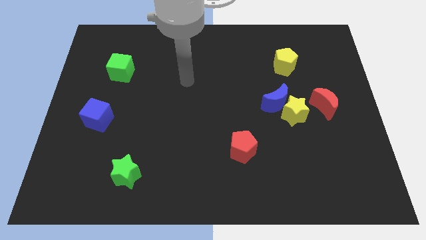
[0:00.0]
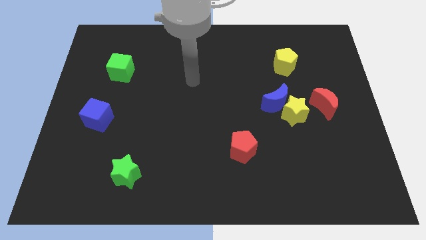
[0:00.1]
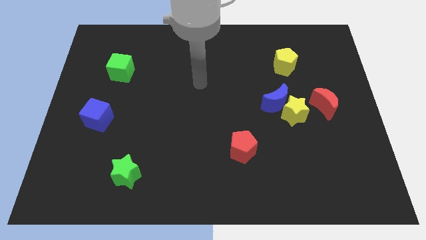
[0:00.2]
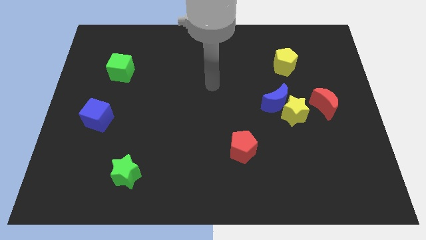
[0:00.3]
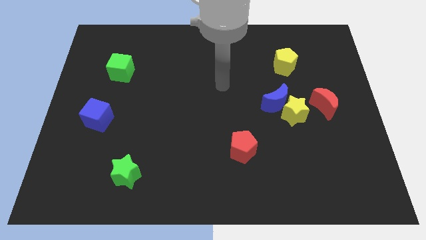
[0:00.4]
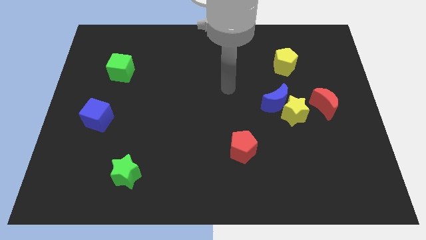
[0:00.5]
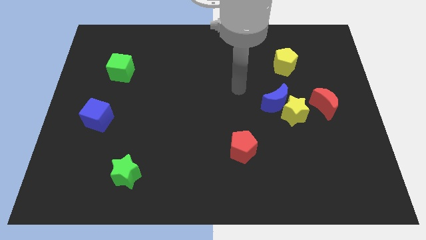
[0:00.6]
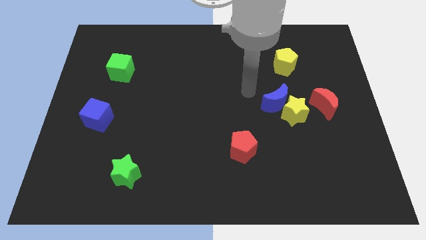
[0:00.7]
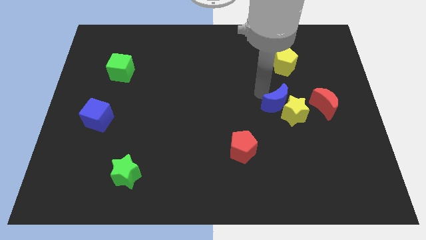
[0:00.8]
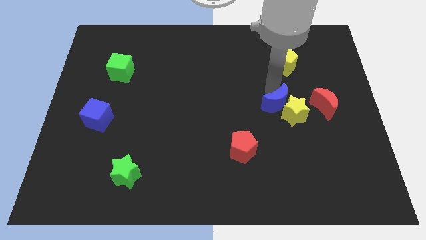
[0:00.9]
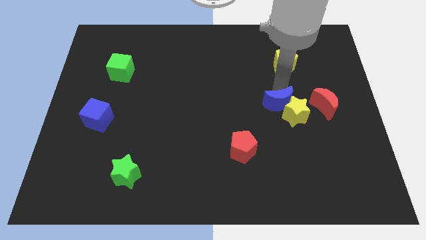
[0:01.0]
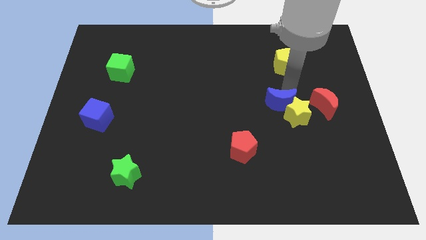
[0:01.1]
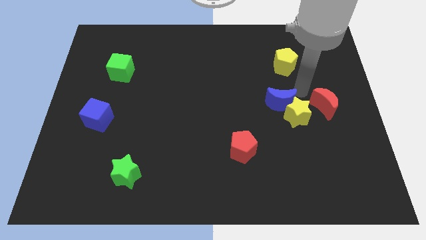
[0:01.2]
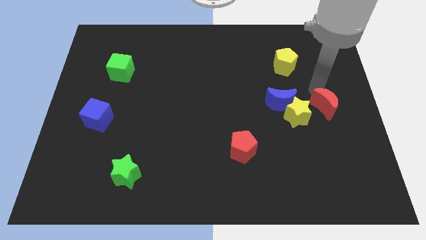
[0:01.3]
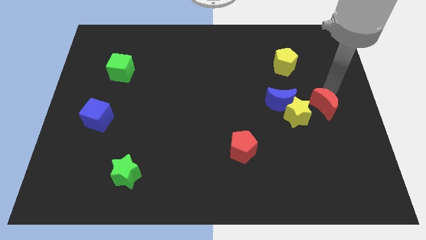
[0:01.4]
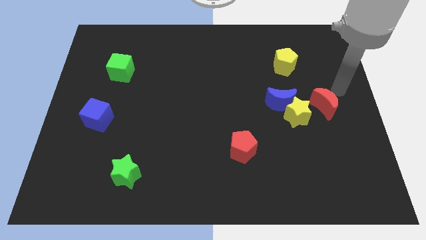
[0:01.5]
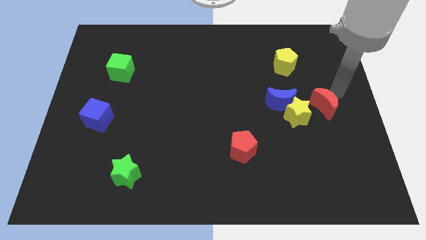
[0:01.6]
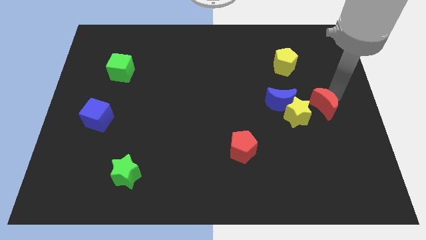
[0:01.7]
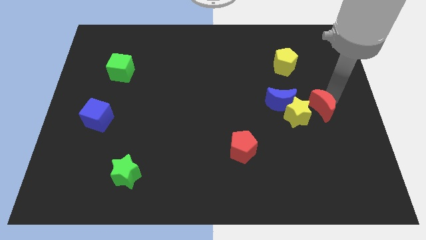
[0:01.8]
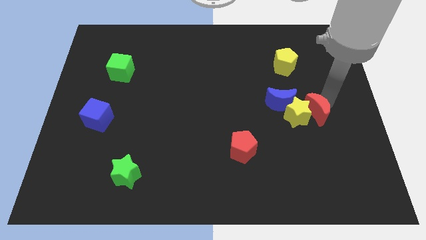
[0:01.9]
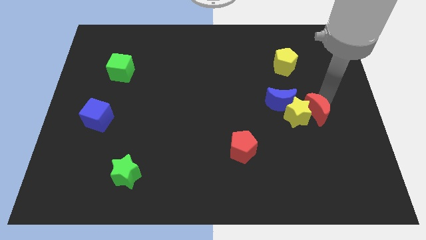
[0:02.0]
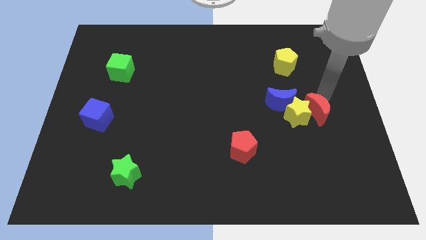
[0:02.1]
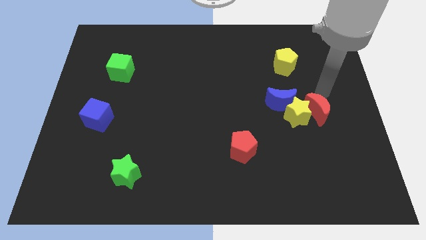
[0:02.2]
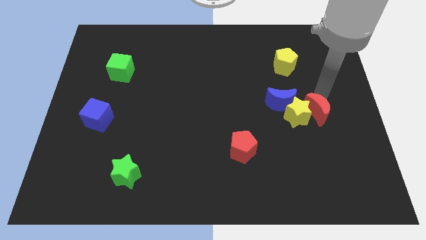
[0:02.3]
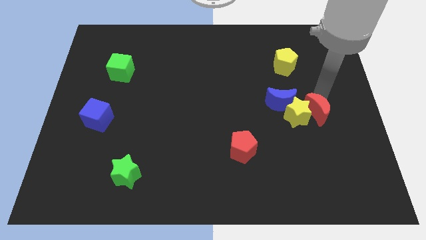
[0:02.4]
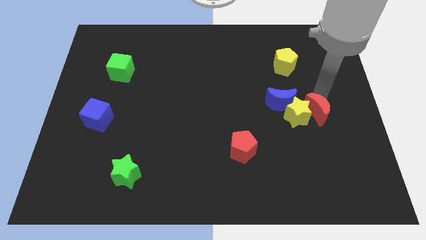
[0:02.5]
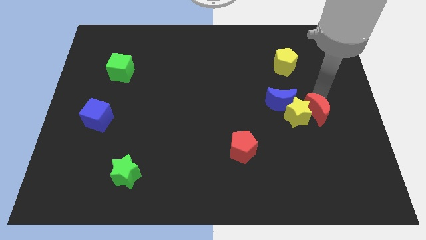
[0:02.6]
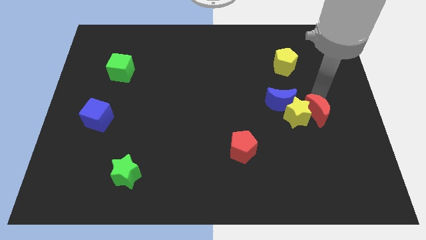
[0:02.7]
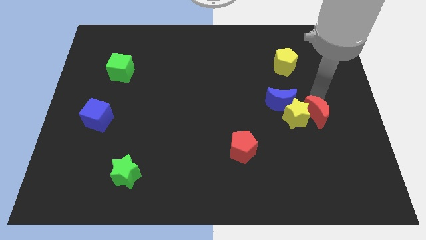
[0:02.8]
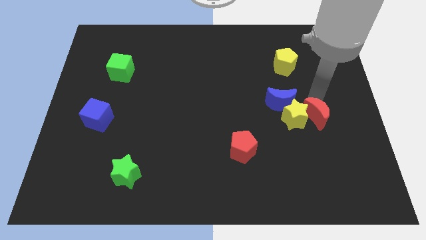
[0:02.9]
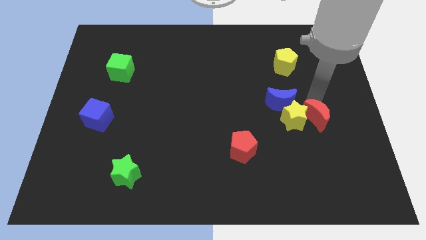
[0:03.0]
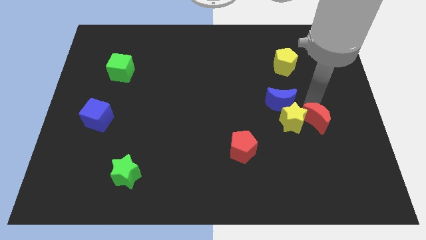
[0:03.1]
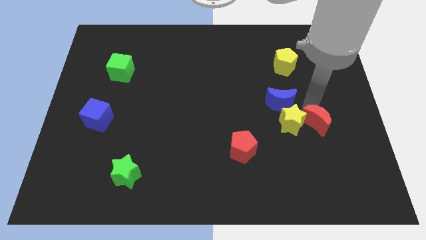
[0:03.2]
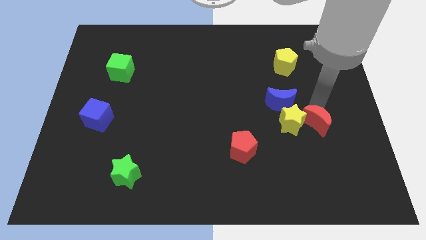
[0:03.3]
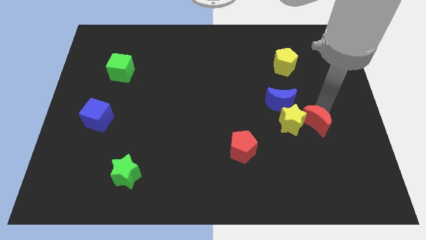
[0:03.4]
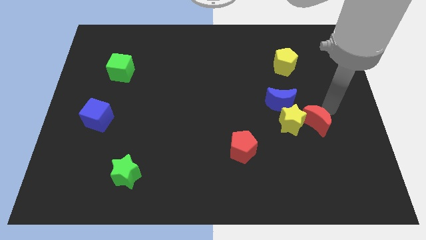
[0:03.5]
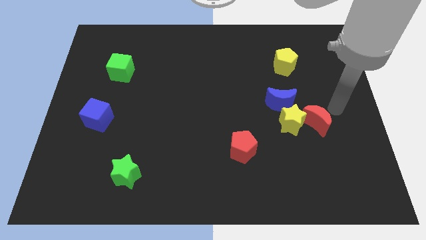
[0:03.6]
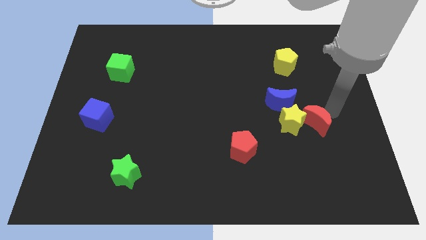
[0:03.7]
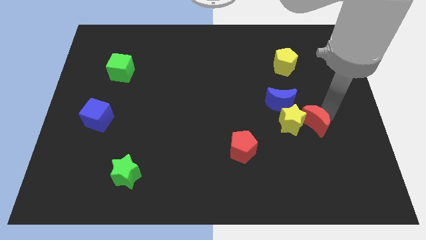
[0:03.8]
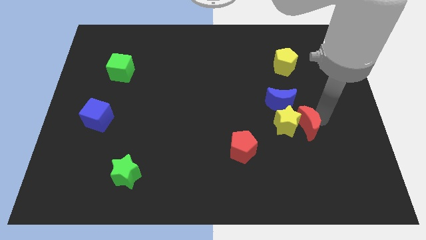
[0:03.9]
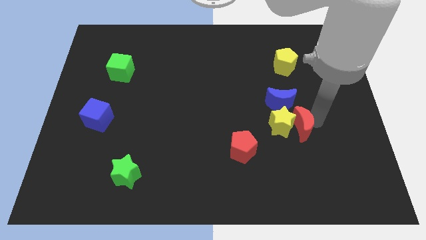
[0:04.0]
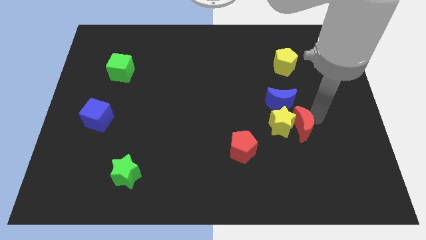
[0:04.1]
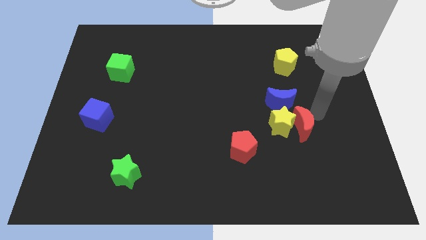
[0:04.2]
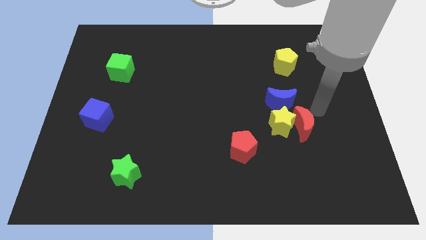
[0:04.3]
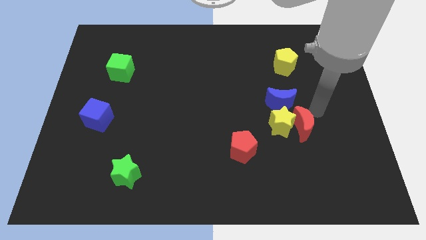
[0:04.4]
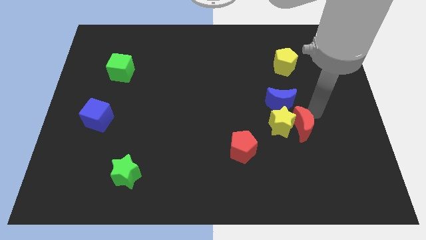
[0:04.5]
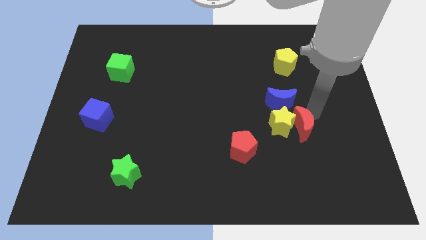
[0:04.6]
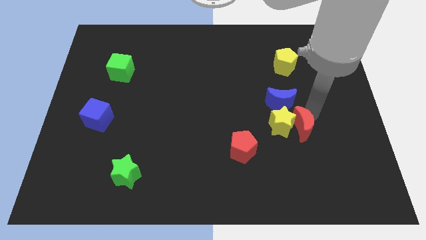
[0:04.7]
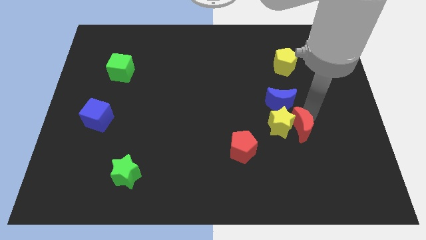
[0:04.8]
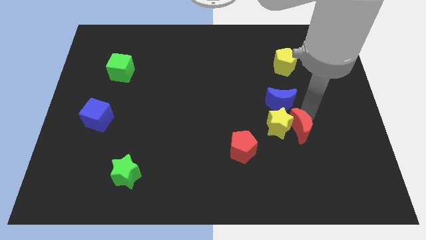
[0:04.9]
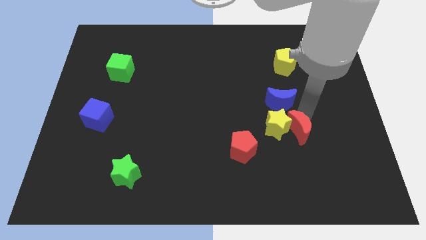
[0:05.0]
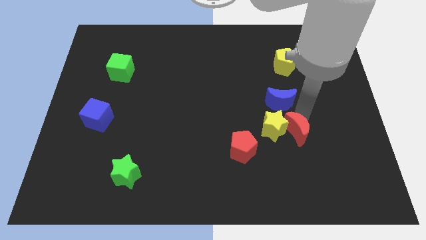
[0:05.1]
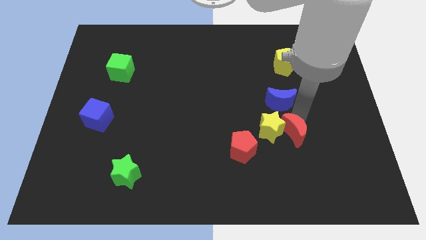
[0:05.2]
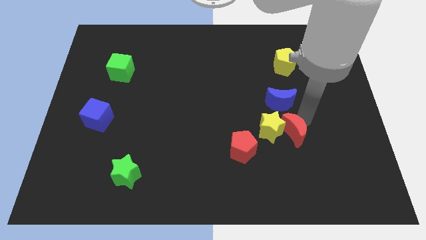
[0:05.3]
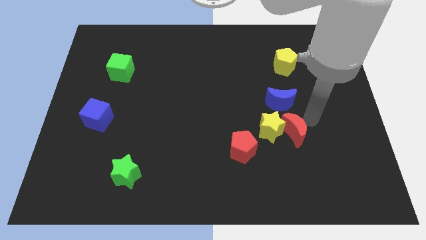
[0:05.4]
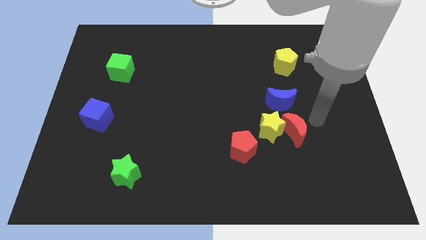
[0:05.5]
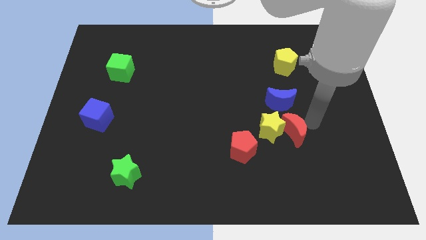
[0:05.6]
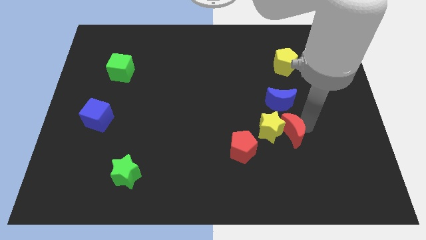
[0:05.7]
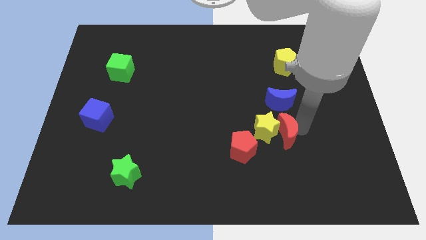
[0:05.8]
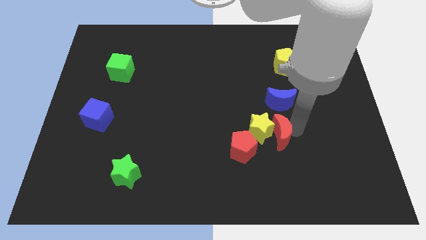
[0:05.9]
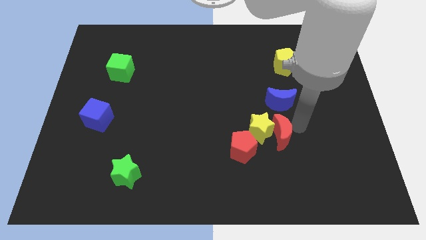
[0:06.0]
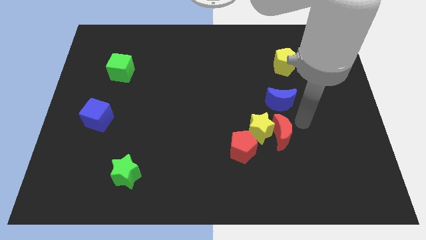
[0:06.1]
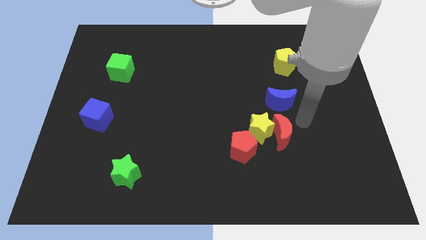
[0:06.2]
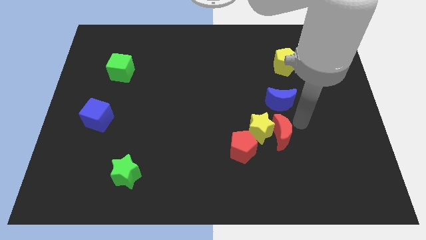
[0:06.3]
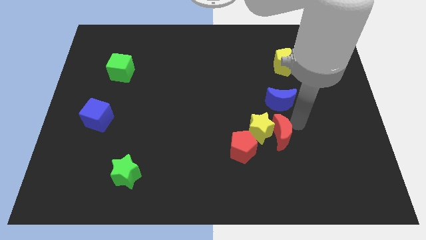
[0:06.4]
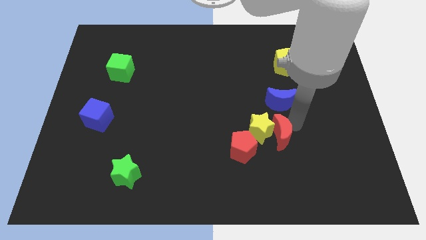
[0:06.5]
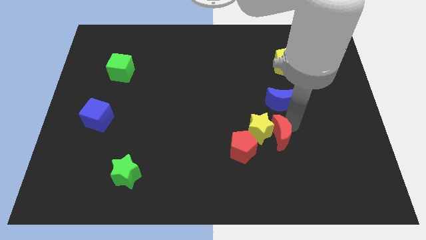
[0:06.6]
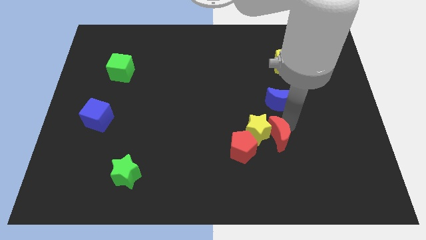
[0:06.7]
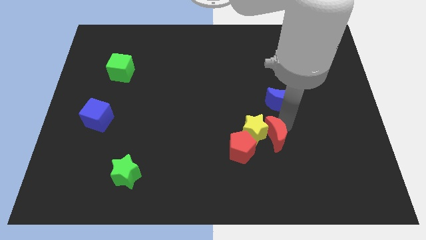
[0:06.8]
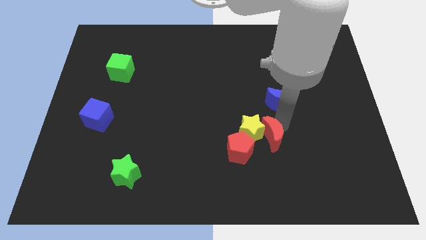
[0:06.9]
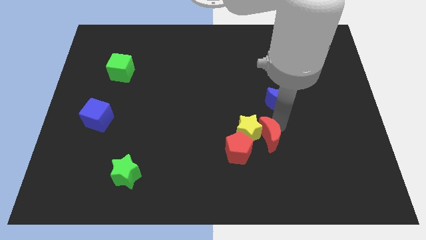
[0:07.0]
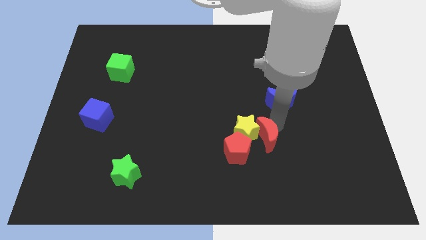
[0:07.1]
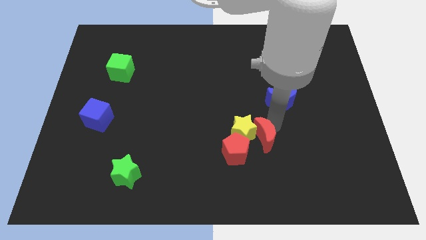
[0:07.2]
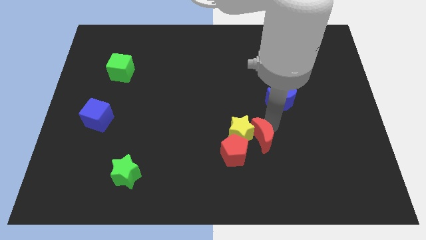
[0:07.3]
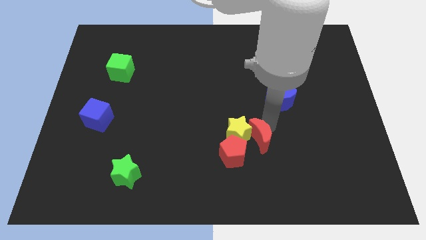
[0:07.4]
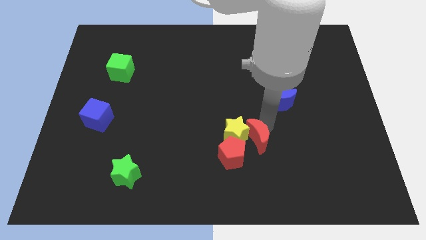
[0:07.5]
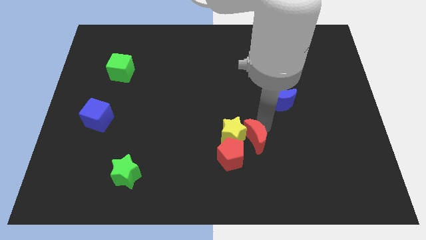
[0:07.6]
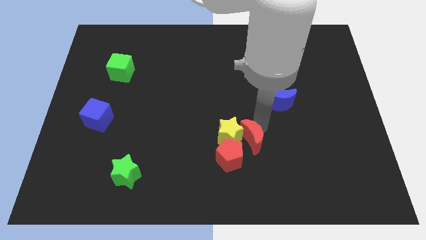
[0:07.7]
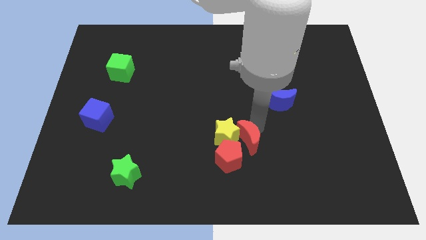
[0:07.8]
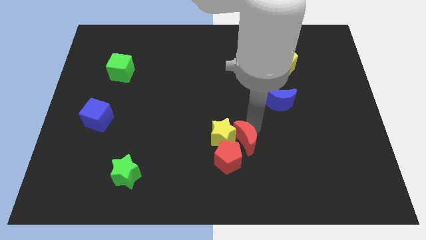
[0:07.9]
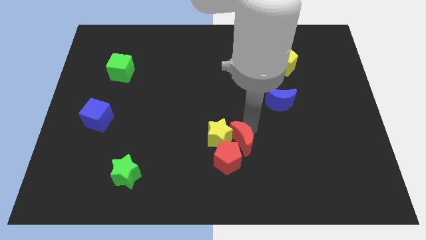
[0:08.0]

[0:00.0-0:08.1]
push the red moon close to the red pentagon
